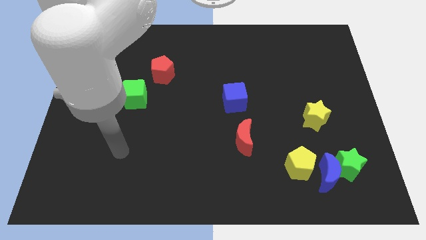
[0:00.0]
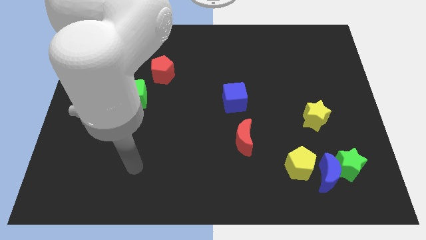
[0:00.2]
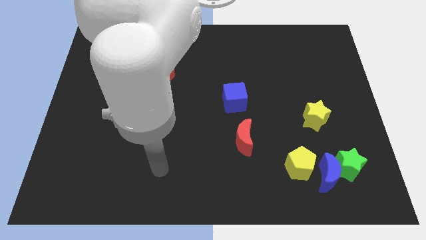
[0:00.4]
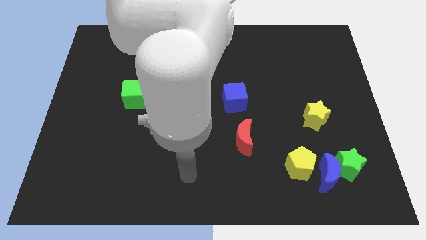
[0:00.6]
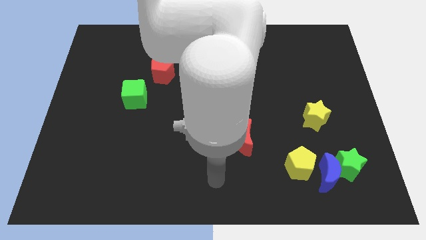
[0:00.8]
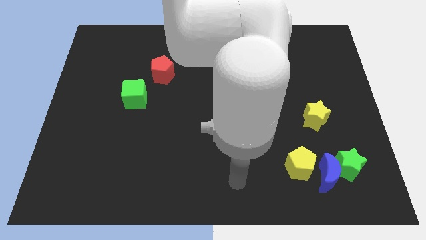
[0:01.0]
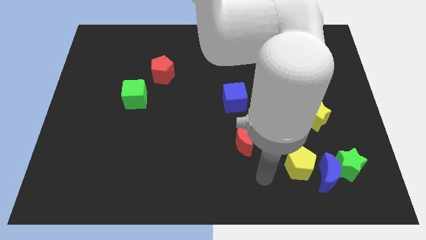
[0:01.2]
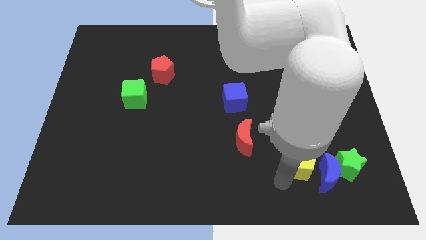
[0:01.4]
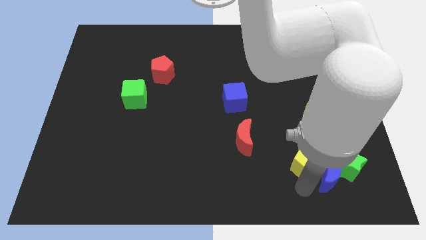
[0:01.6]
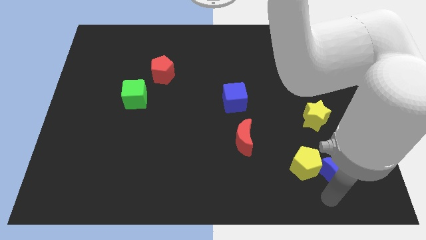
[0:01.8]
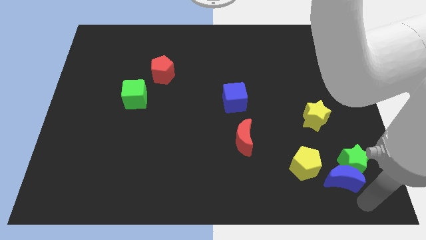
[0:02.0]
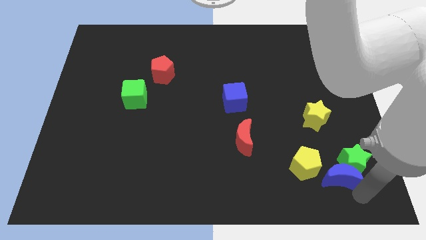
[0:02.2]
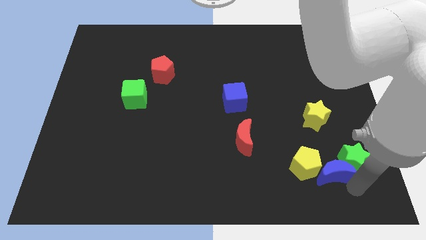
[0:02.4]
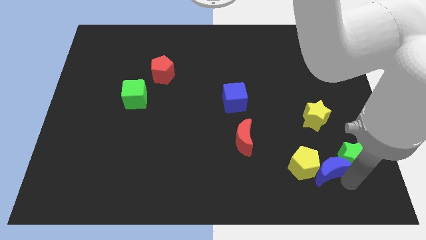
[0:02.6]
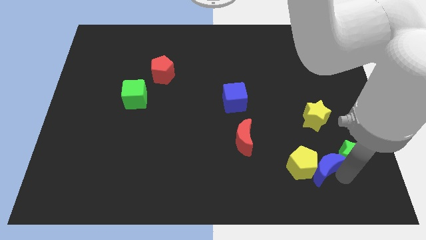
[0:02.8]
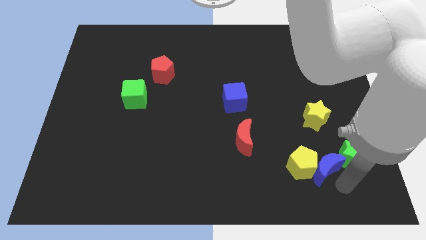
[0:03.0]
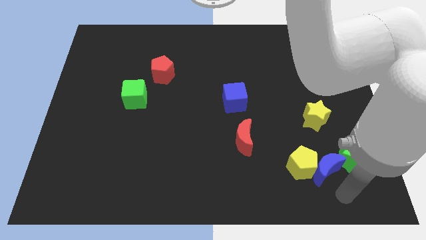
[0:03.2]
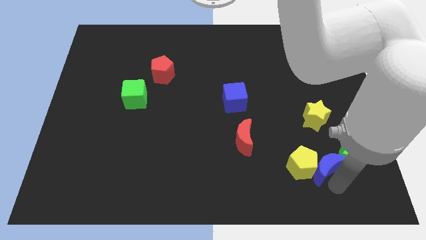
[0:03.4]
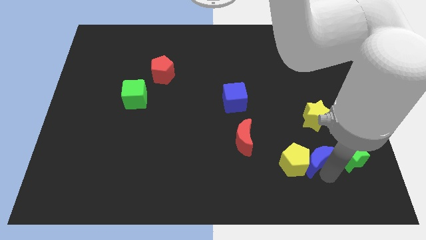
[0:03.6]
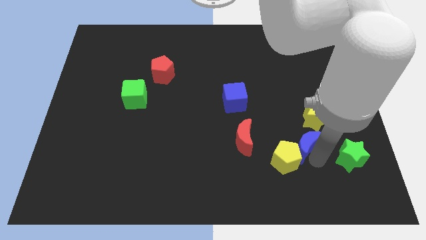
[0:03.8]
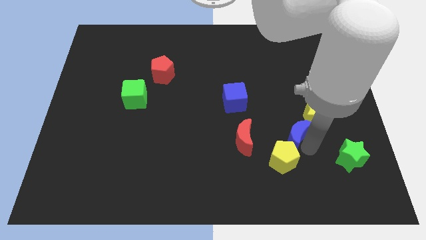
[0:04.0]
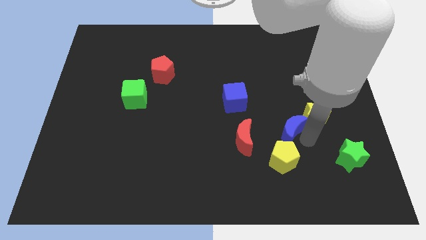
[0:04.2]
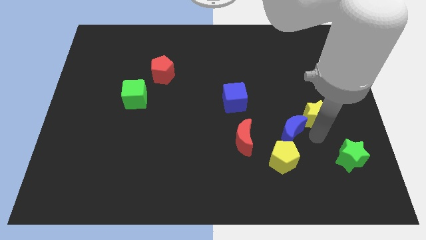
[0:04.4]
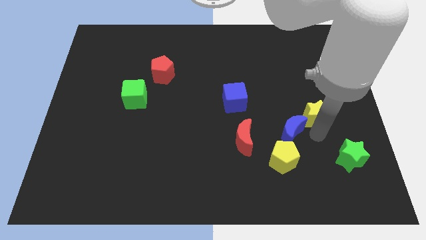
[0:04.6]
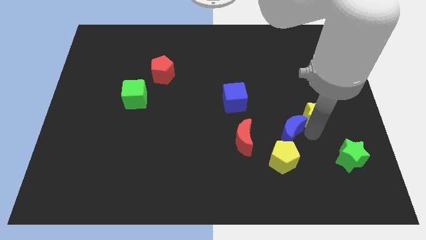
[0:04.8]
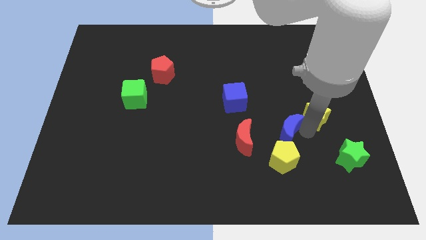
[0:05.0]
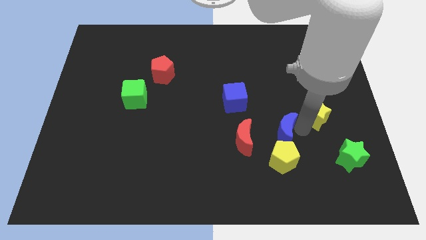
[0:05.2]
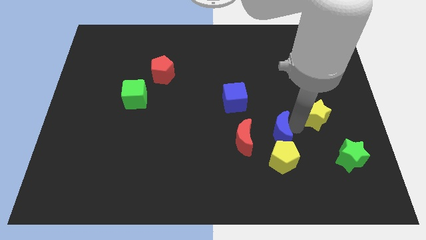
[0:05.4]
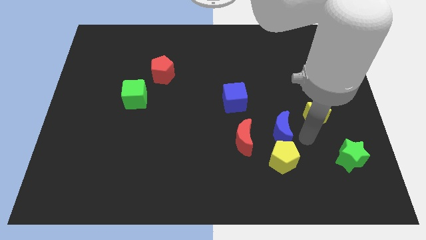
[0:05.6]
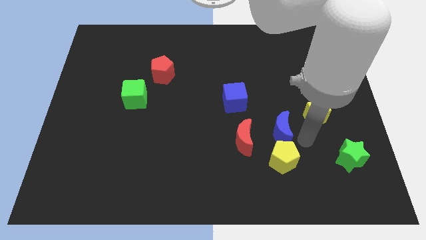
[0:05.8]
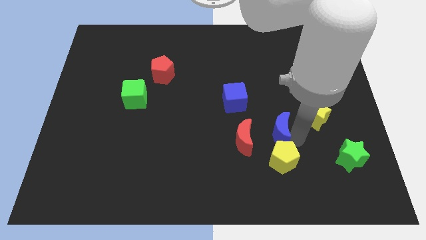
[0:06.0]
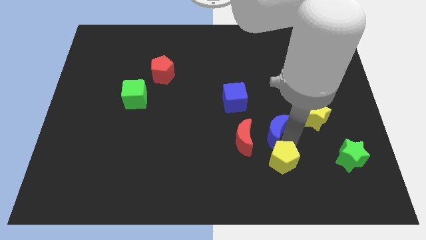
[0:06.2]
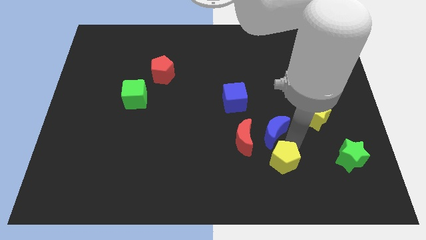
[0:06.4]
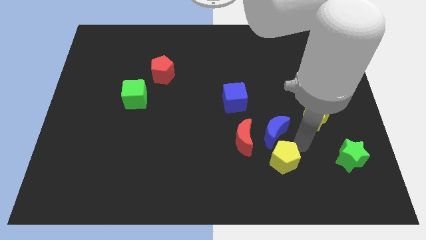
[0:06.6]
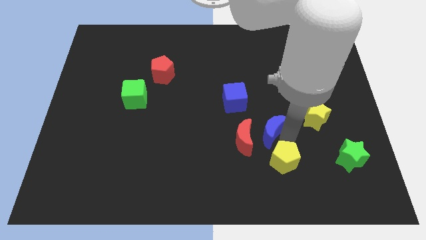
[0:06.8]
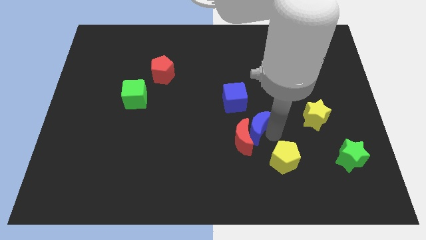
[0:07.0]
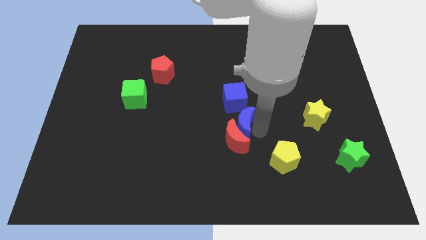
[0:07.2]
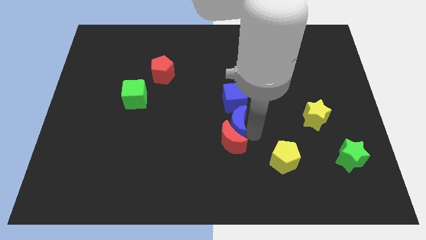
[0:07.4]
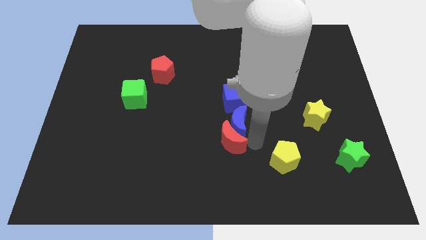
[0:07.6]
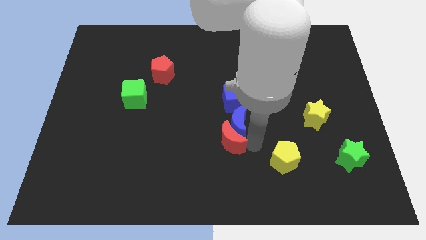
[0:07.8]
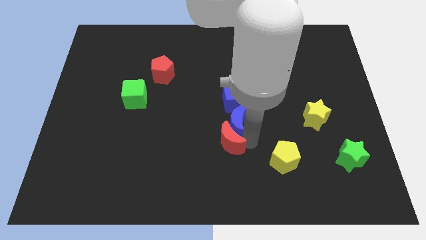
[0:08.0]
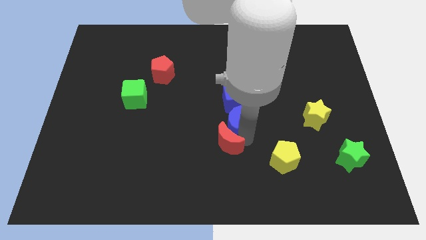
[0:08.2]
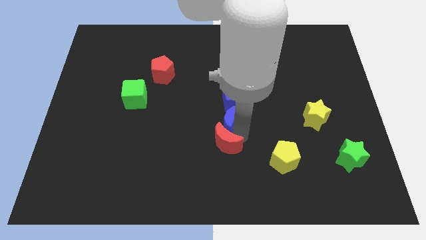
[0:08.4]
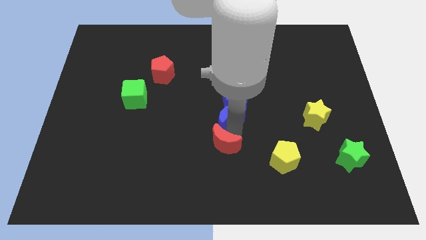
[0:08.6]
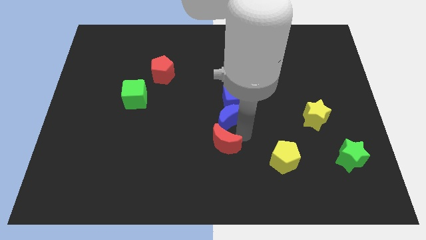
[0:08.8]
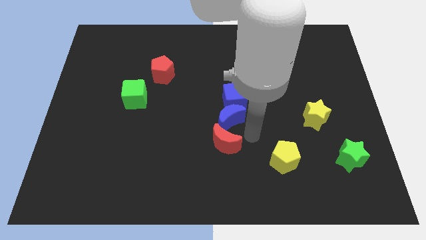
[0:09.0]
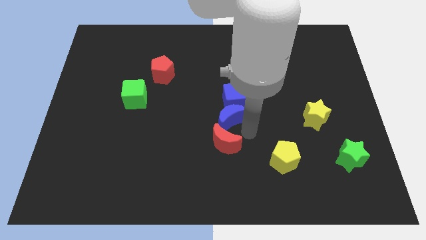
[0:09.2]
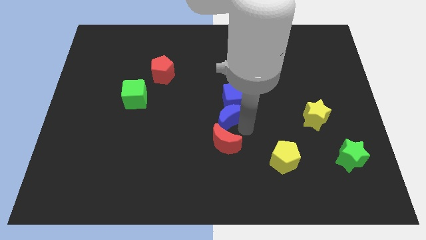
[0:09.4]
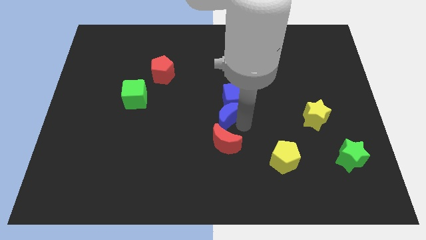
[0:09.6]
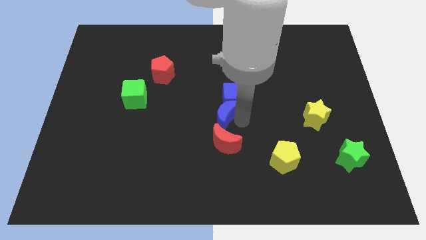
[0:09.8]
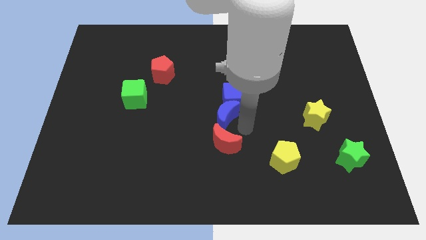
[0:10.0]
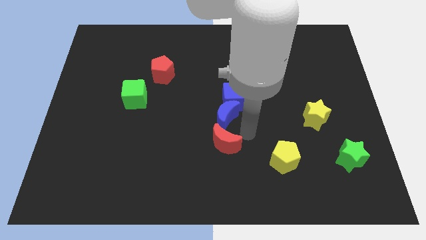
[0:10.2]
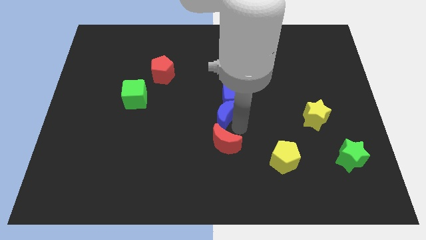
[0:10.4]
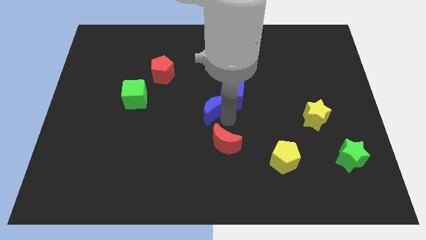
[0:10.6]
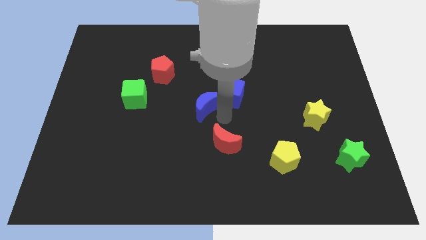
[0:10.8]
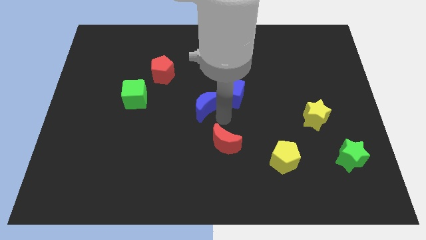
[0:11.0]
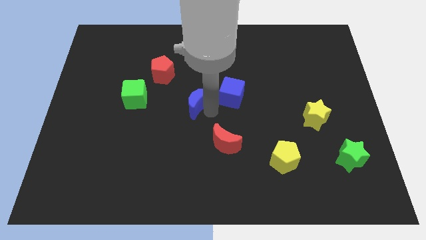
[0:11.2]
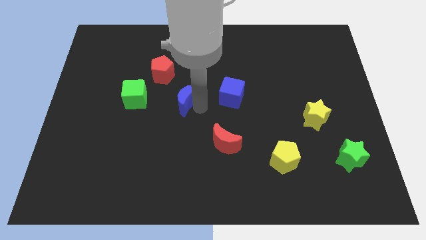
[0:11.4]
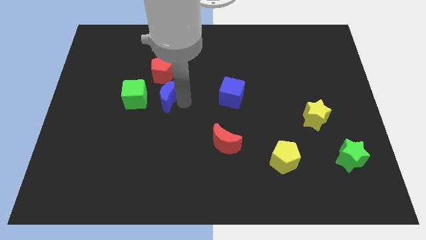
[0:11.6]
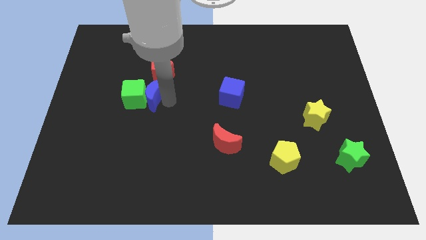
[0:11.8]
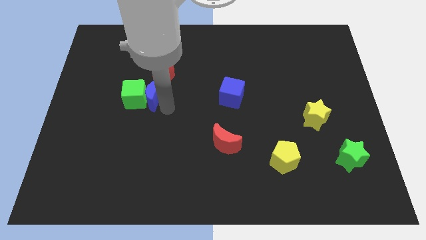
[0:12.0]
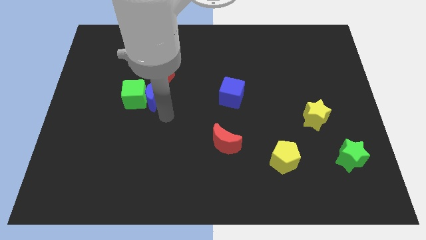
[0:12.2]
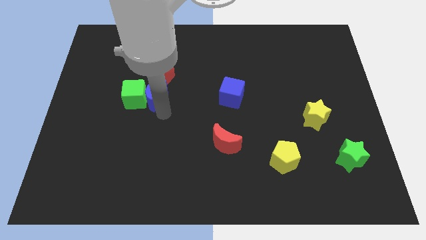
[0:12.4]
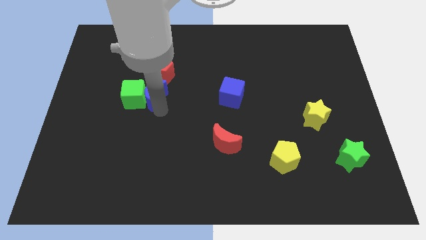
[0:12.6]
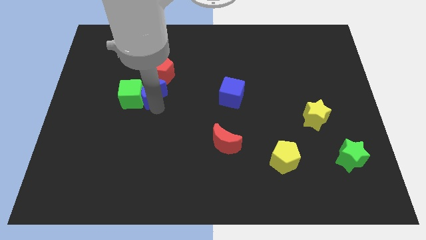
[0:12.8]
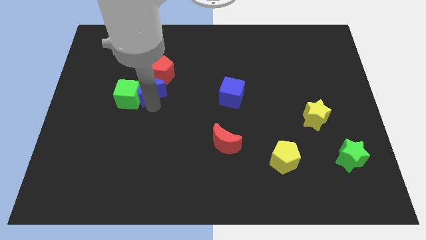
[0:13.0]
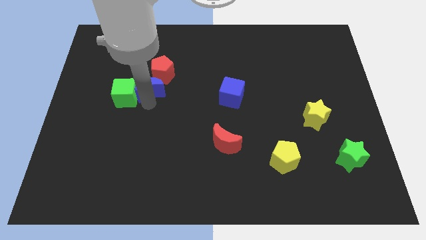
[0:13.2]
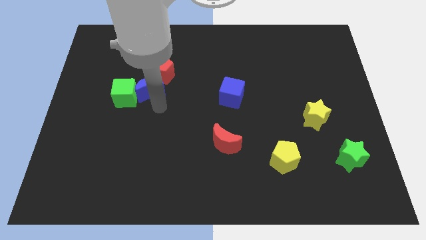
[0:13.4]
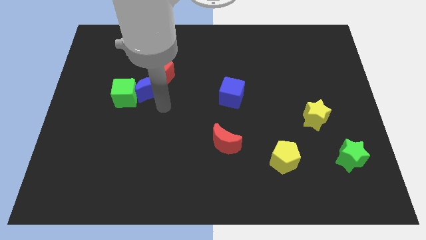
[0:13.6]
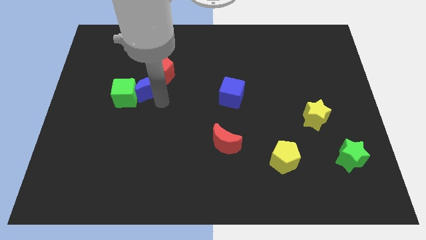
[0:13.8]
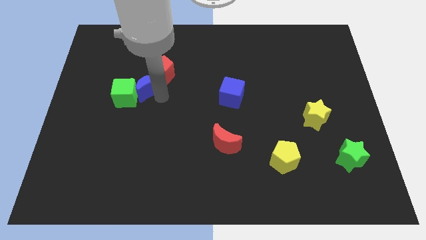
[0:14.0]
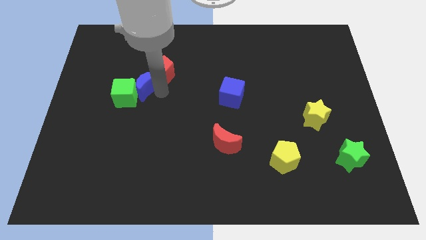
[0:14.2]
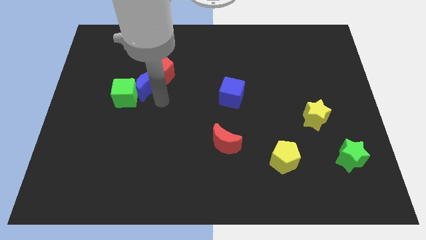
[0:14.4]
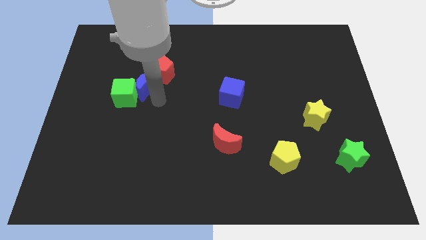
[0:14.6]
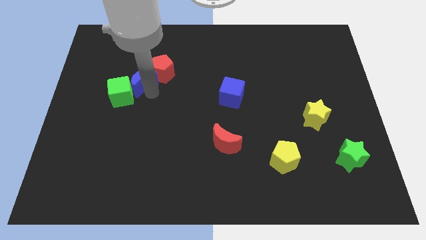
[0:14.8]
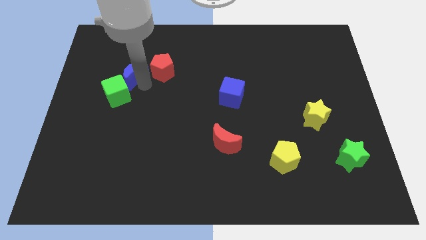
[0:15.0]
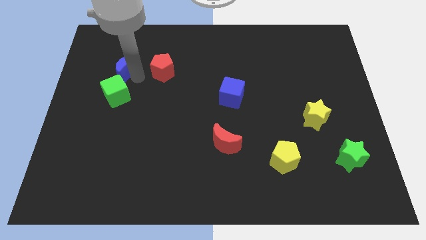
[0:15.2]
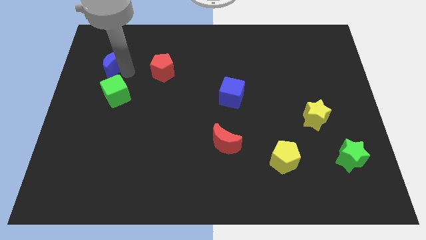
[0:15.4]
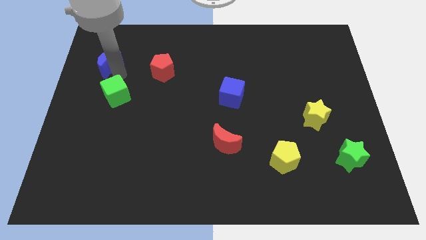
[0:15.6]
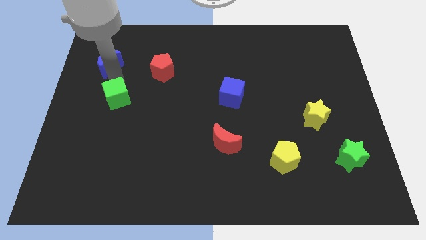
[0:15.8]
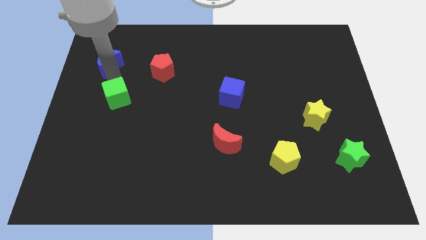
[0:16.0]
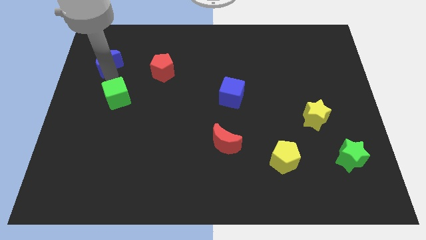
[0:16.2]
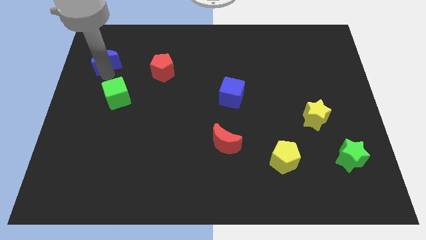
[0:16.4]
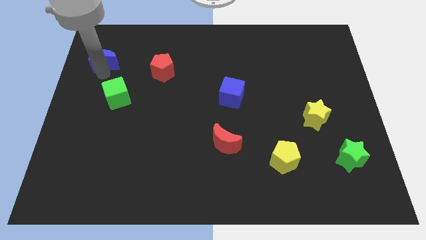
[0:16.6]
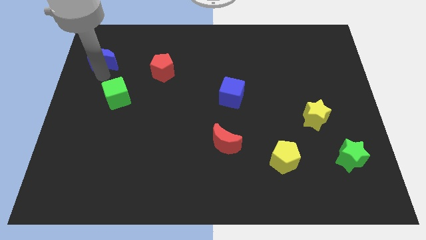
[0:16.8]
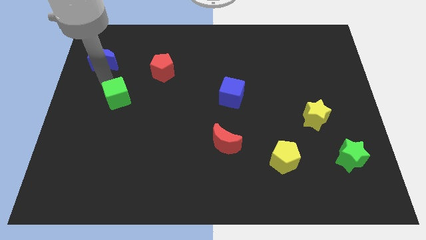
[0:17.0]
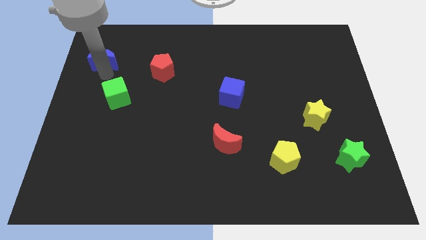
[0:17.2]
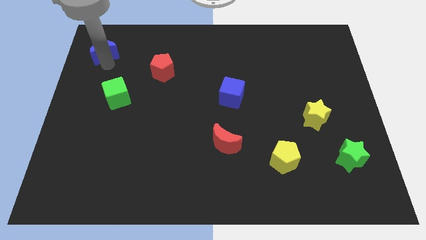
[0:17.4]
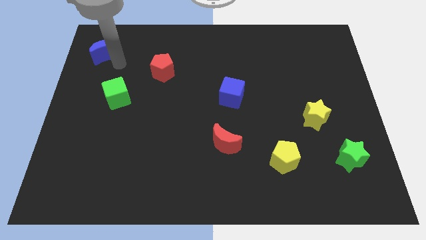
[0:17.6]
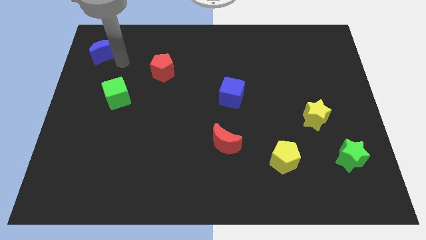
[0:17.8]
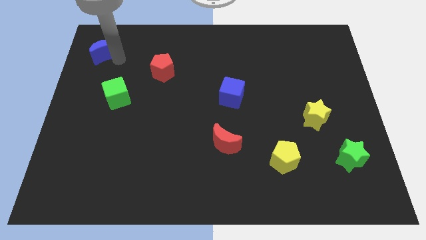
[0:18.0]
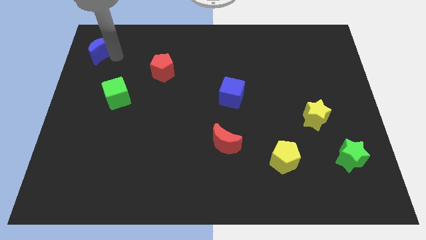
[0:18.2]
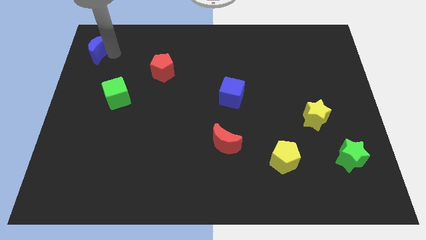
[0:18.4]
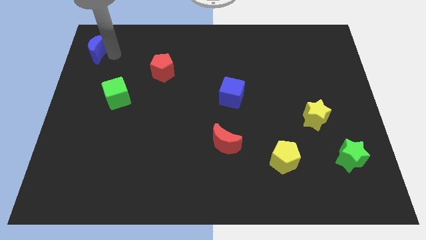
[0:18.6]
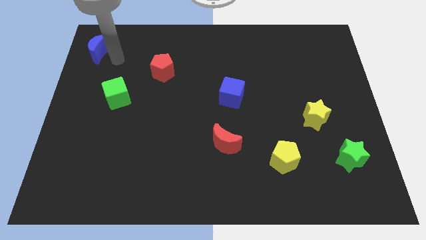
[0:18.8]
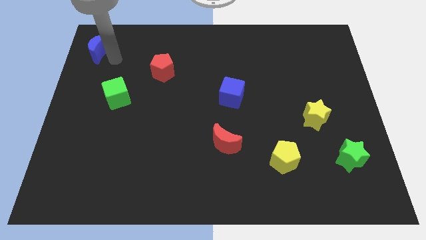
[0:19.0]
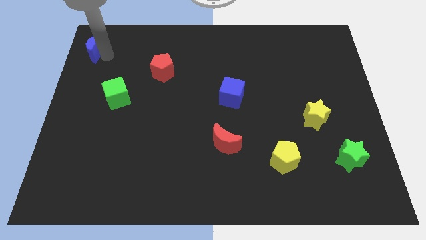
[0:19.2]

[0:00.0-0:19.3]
move the blue moon to the upper left corner
